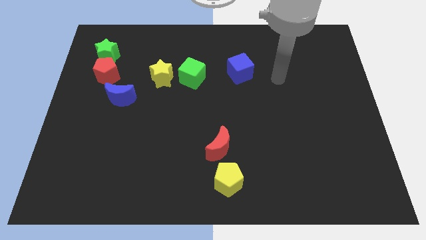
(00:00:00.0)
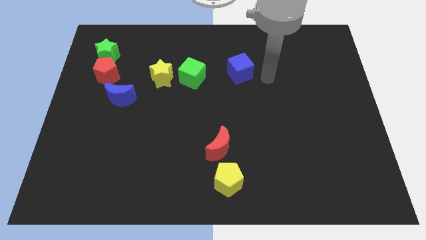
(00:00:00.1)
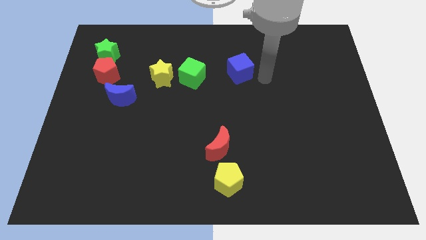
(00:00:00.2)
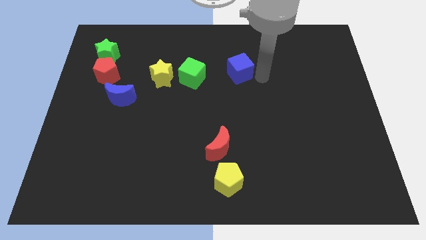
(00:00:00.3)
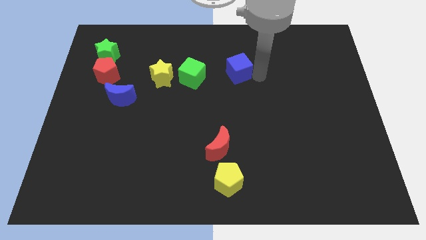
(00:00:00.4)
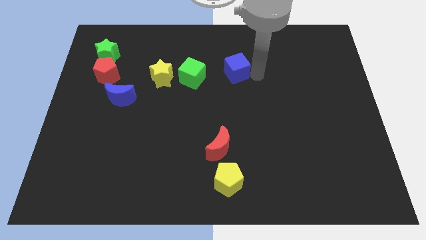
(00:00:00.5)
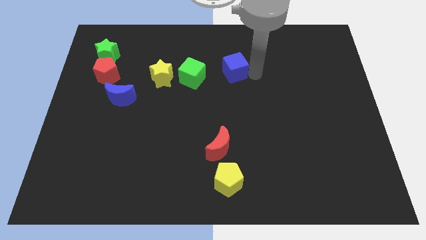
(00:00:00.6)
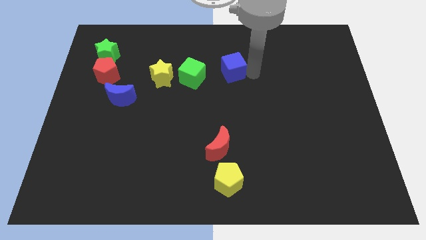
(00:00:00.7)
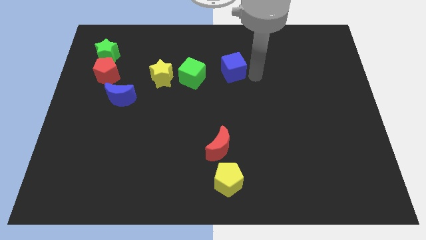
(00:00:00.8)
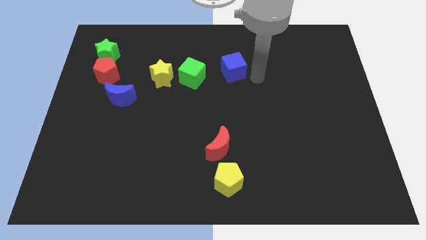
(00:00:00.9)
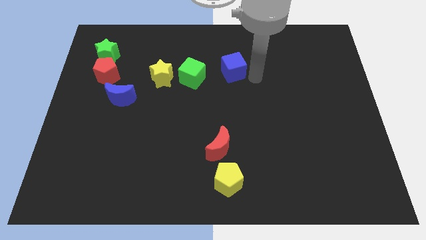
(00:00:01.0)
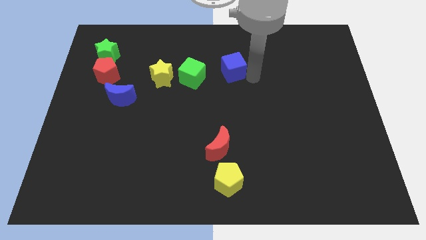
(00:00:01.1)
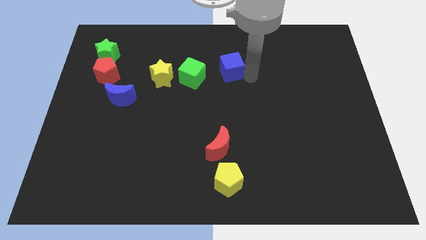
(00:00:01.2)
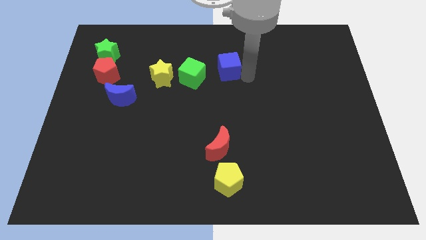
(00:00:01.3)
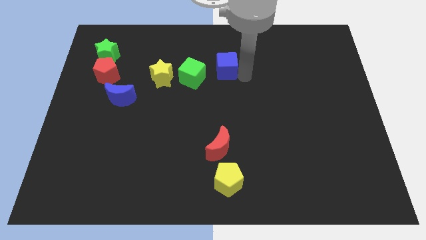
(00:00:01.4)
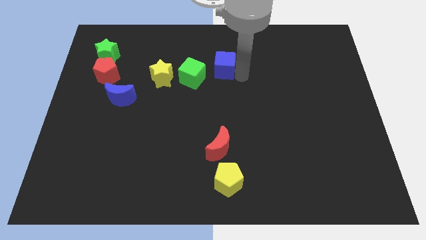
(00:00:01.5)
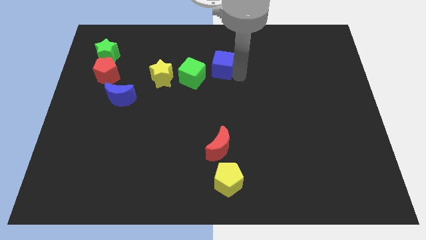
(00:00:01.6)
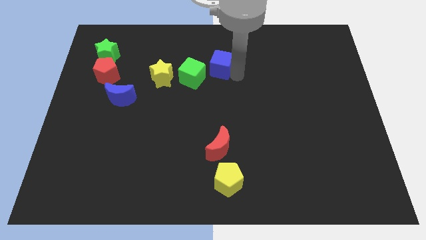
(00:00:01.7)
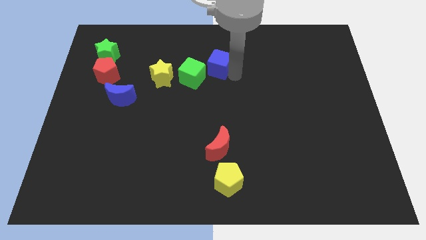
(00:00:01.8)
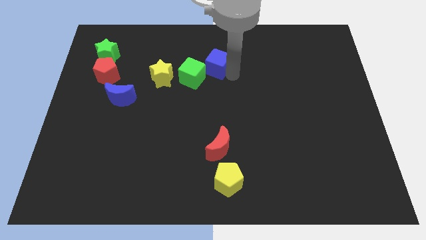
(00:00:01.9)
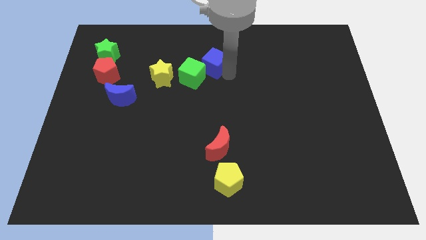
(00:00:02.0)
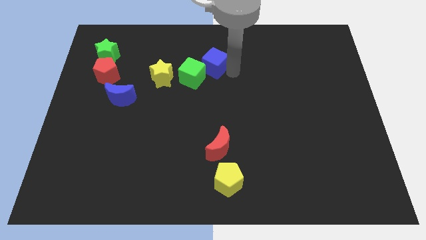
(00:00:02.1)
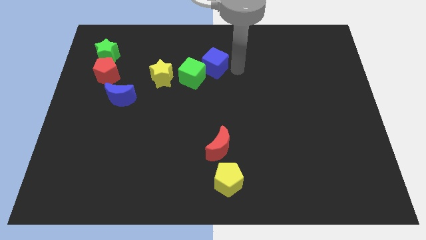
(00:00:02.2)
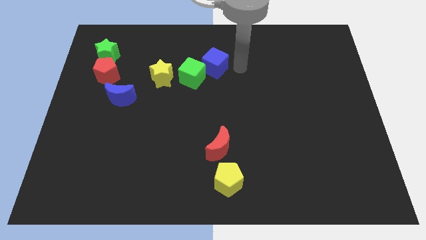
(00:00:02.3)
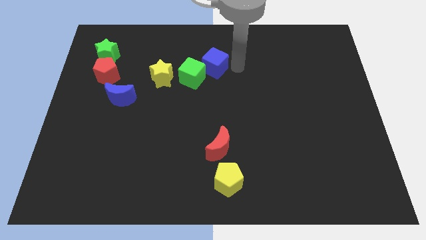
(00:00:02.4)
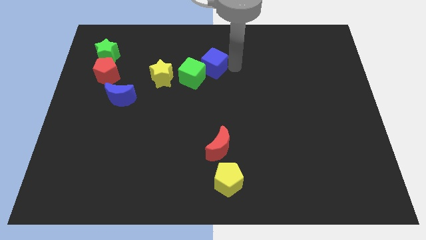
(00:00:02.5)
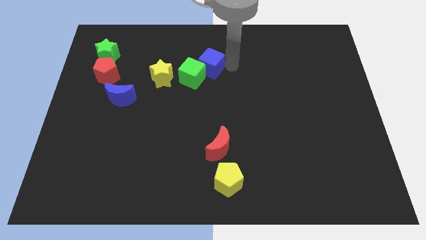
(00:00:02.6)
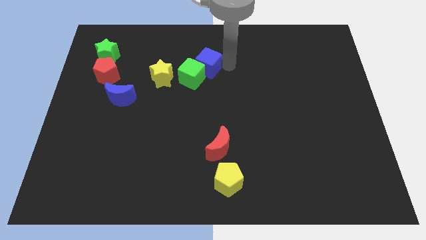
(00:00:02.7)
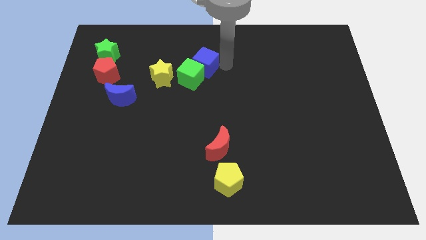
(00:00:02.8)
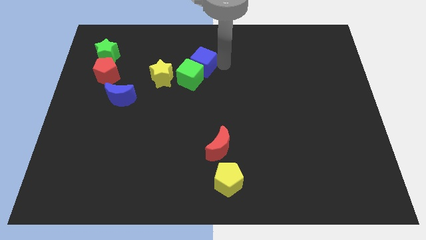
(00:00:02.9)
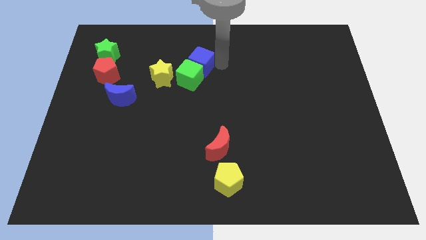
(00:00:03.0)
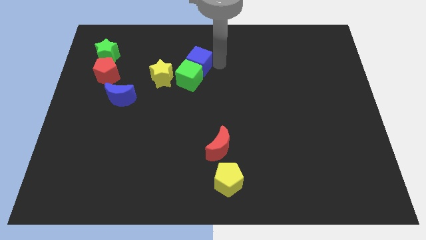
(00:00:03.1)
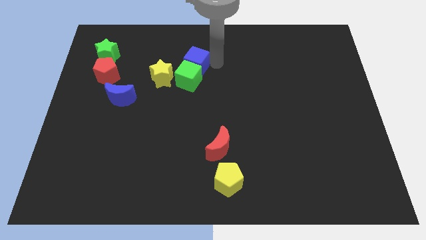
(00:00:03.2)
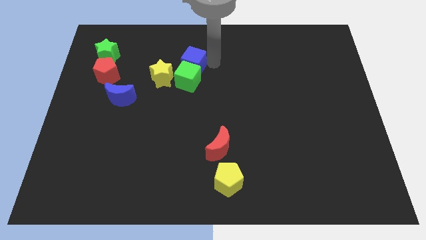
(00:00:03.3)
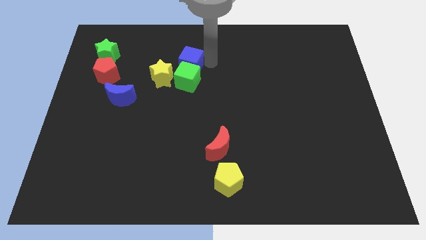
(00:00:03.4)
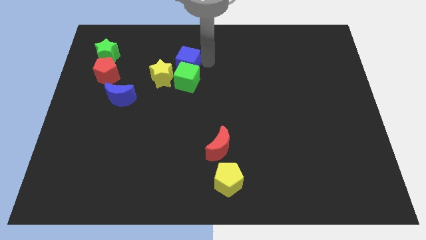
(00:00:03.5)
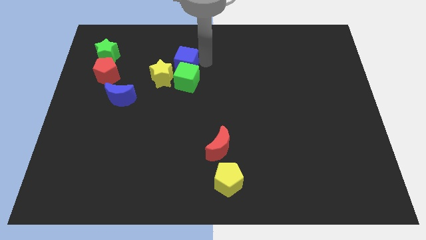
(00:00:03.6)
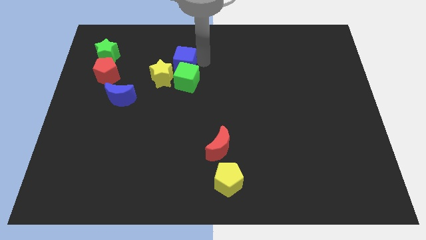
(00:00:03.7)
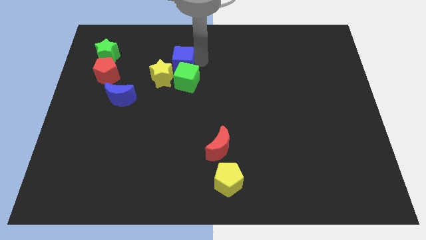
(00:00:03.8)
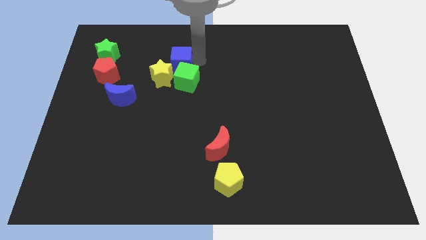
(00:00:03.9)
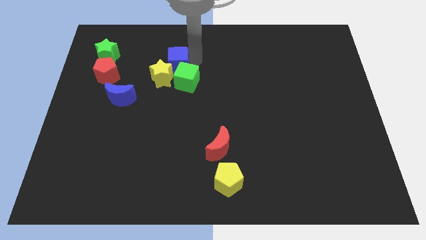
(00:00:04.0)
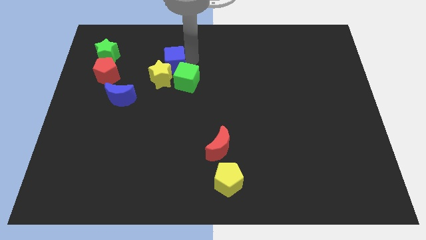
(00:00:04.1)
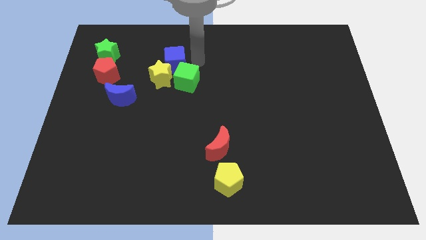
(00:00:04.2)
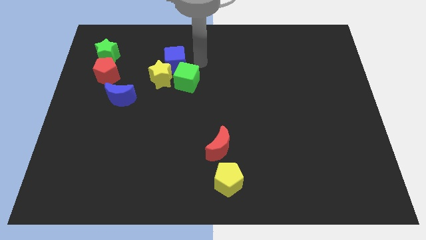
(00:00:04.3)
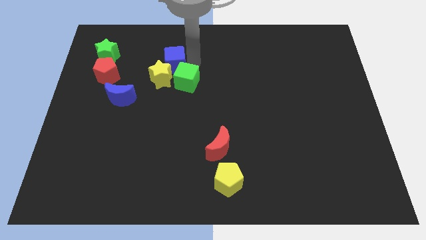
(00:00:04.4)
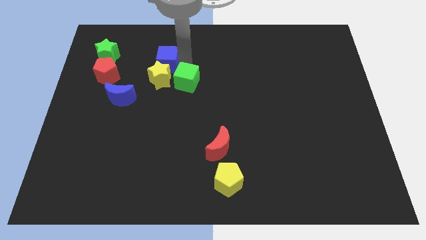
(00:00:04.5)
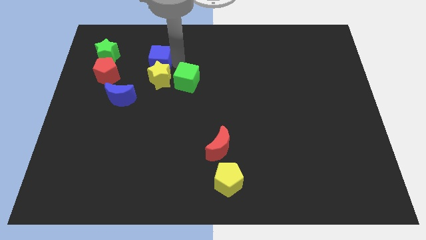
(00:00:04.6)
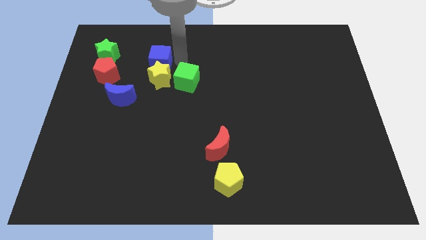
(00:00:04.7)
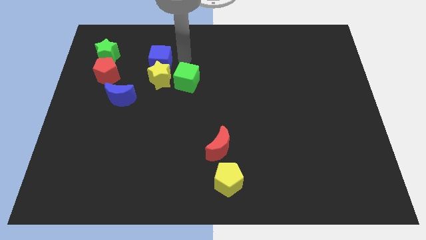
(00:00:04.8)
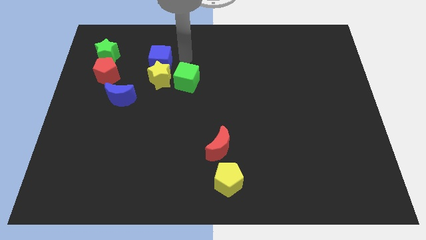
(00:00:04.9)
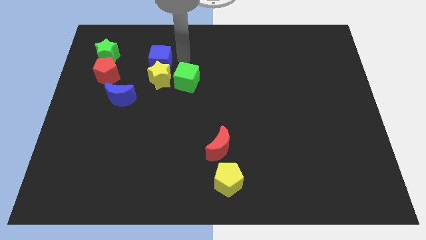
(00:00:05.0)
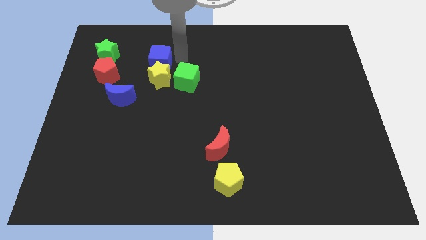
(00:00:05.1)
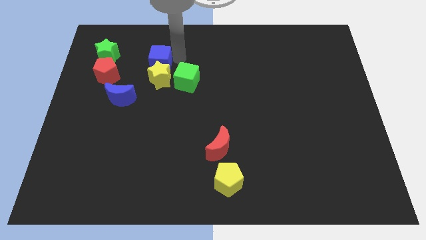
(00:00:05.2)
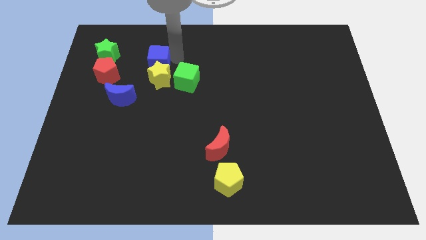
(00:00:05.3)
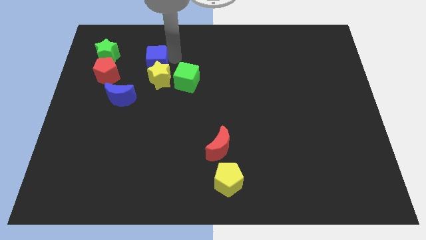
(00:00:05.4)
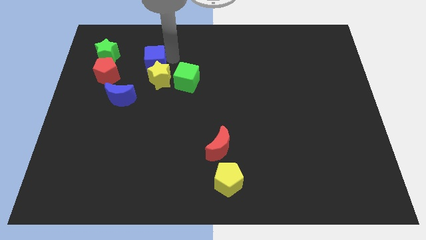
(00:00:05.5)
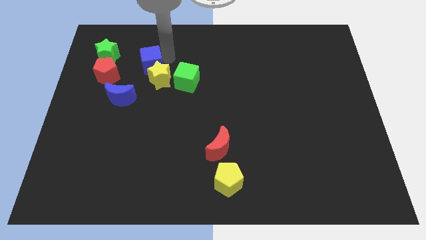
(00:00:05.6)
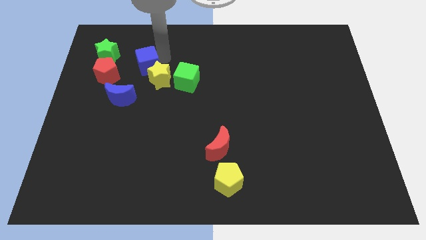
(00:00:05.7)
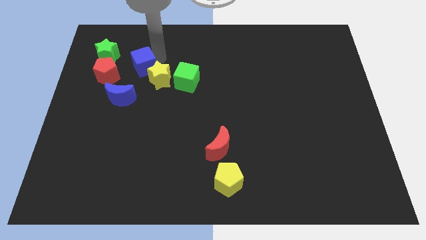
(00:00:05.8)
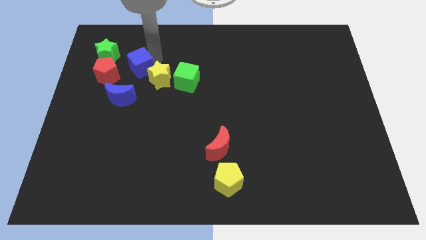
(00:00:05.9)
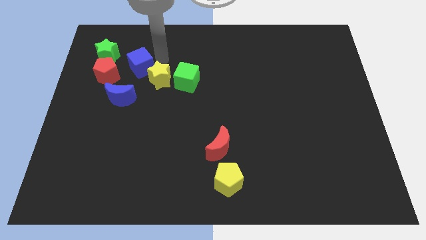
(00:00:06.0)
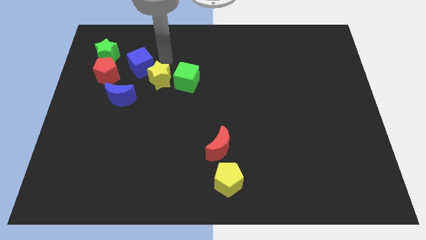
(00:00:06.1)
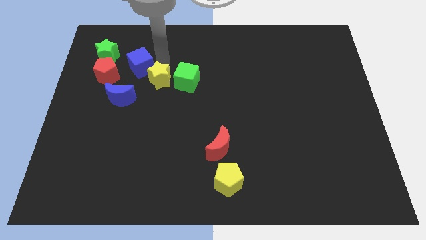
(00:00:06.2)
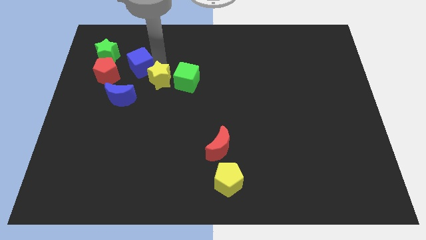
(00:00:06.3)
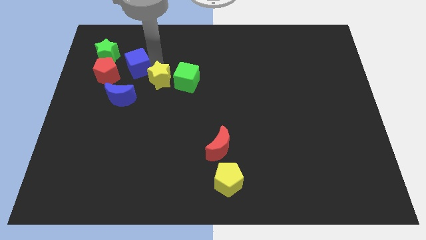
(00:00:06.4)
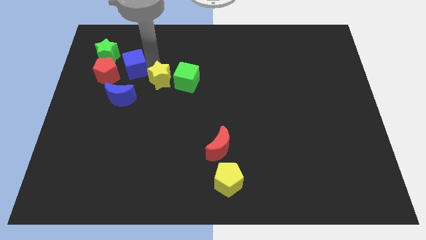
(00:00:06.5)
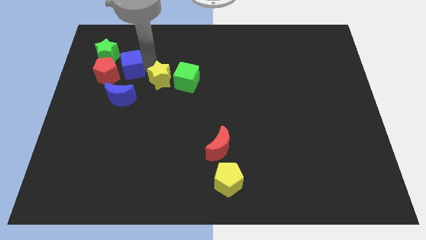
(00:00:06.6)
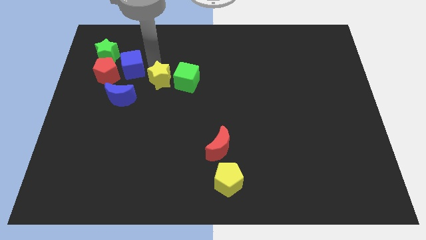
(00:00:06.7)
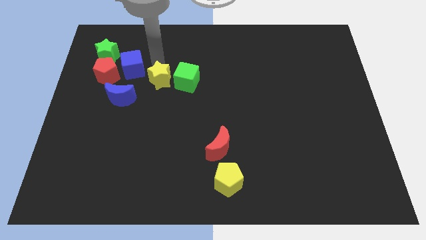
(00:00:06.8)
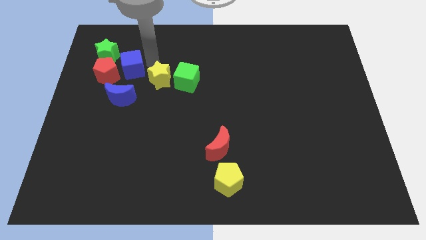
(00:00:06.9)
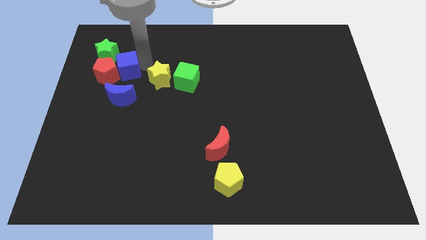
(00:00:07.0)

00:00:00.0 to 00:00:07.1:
slide the blue cube to the red pentagon
